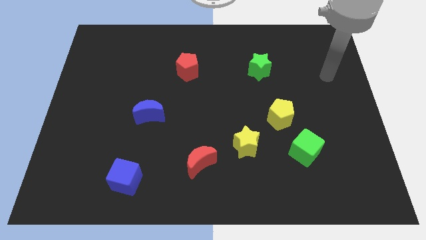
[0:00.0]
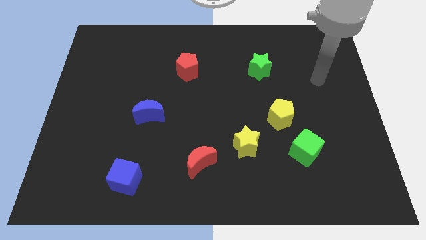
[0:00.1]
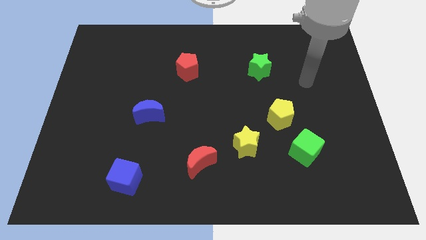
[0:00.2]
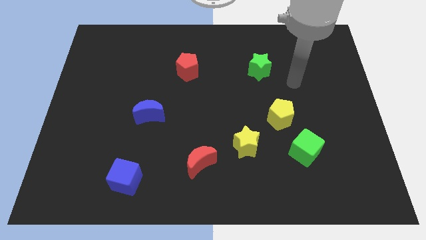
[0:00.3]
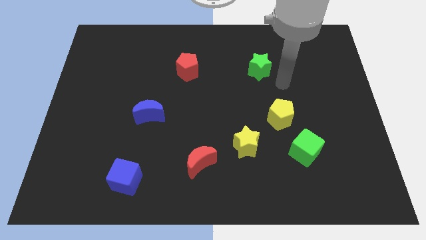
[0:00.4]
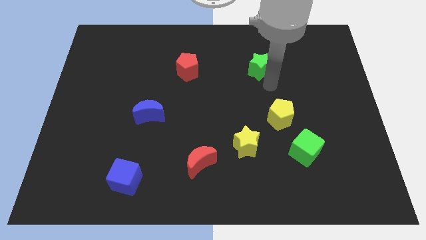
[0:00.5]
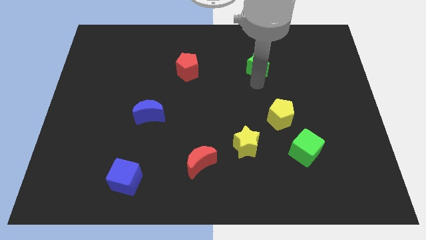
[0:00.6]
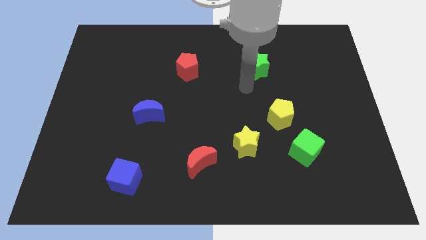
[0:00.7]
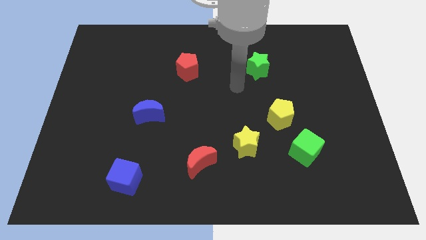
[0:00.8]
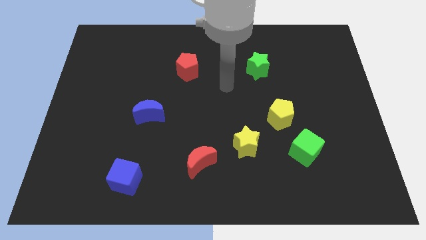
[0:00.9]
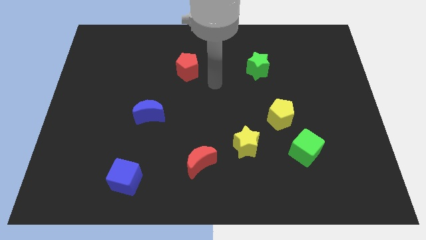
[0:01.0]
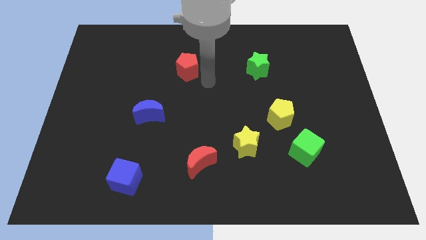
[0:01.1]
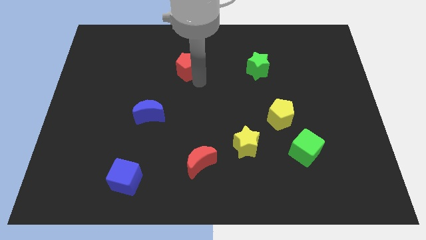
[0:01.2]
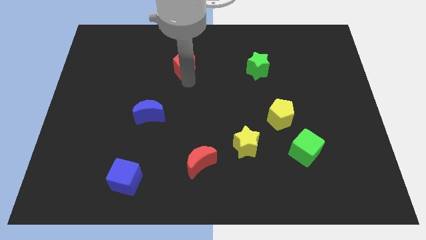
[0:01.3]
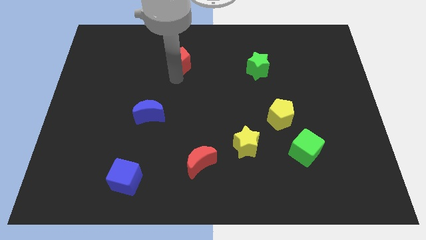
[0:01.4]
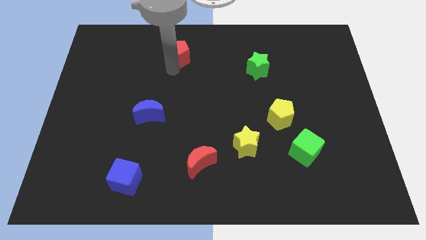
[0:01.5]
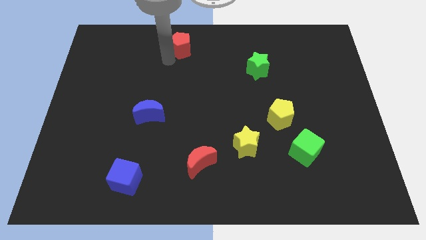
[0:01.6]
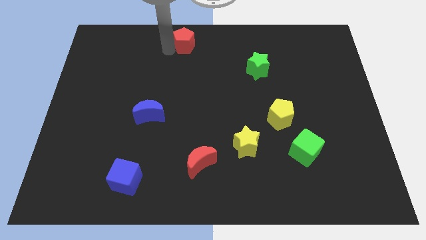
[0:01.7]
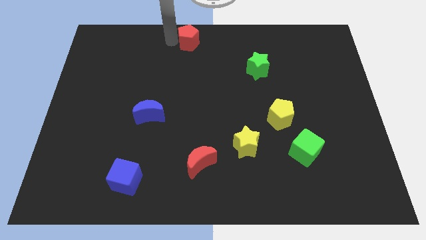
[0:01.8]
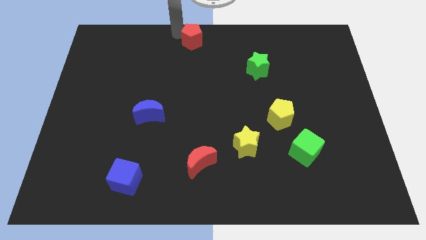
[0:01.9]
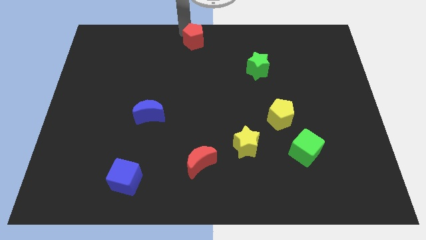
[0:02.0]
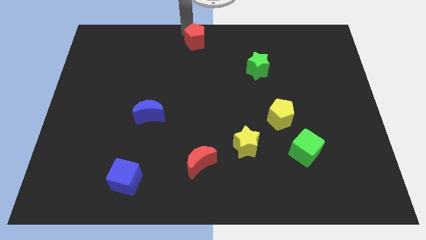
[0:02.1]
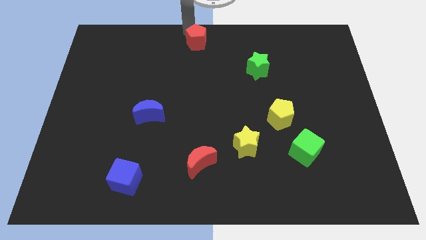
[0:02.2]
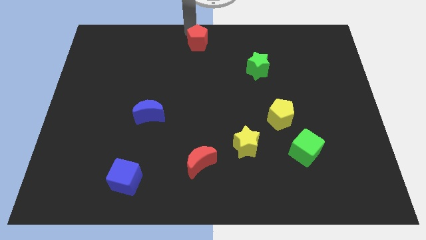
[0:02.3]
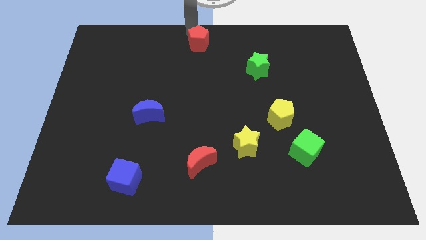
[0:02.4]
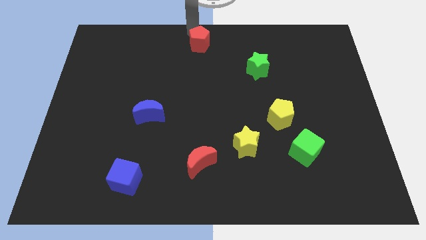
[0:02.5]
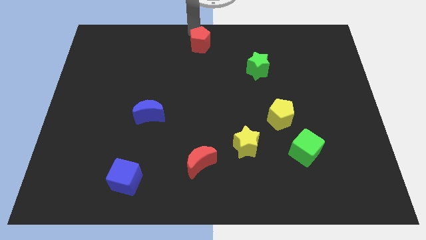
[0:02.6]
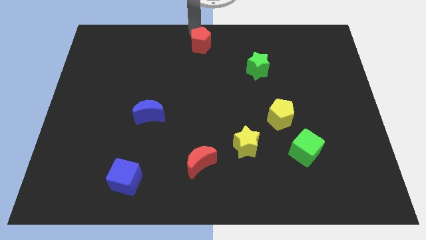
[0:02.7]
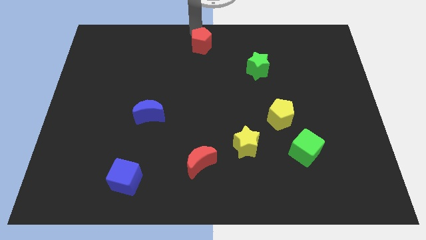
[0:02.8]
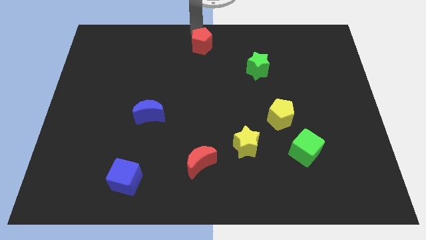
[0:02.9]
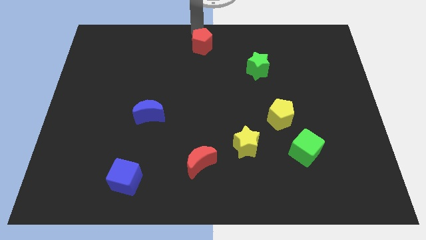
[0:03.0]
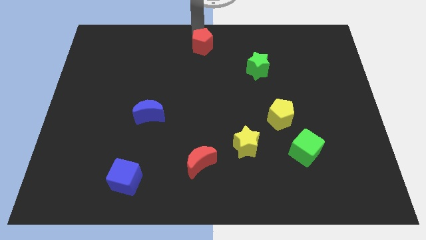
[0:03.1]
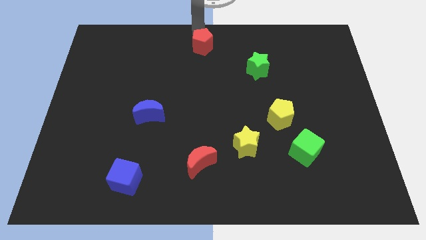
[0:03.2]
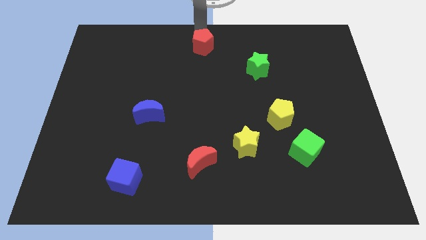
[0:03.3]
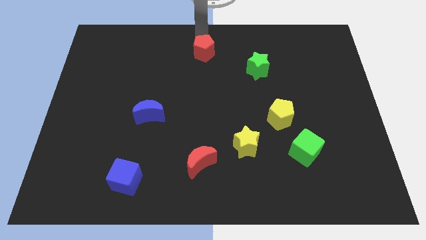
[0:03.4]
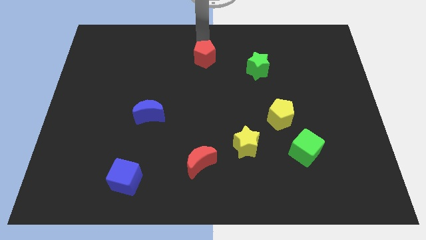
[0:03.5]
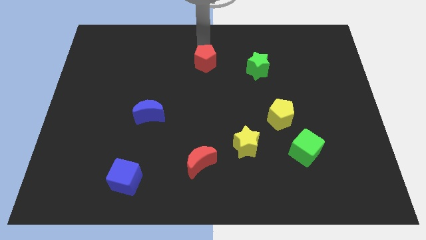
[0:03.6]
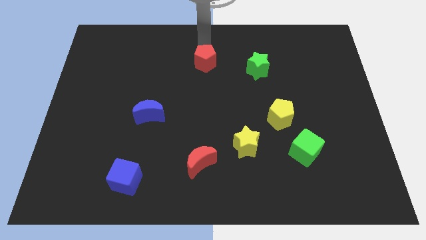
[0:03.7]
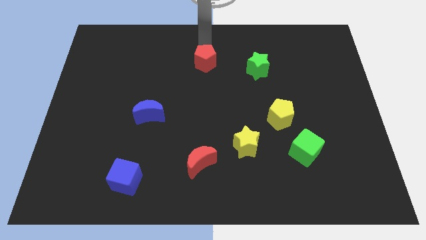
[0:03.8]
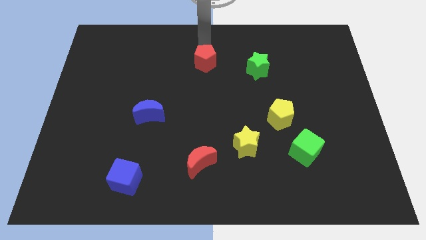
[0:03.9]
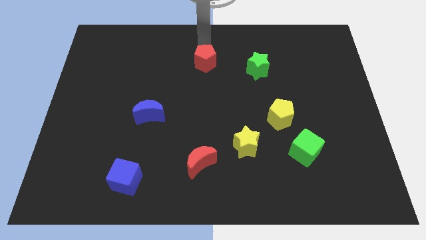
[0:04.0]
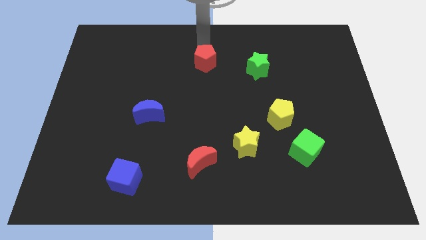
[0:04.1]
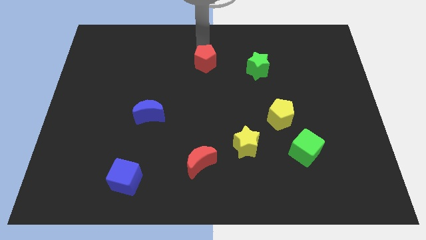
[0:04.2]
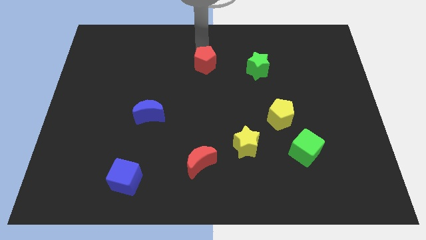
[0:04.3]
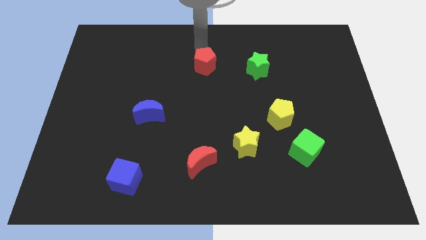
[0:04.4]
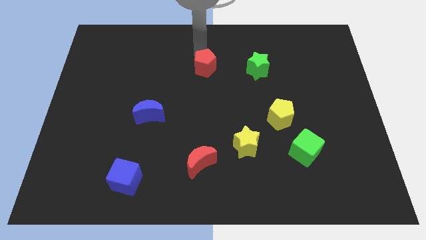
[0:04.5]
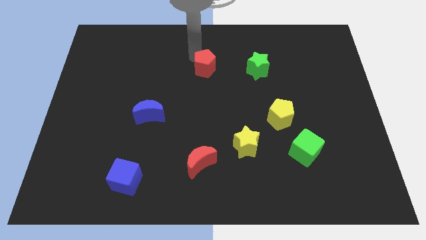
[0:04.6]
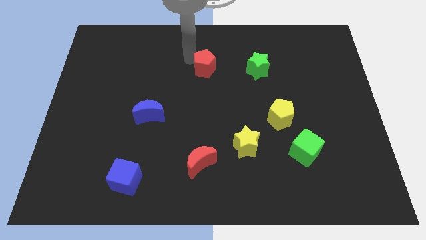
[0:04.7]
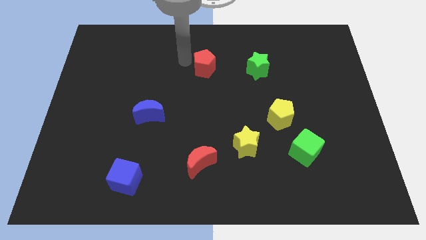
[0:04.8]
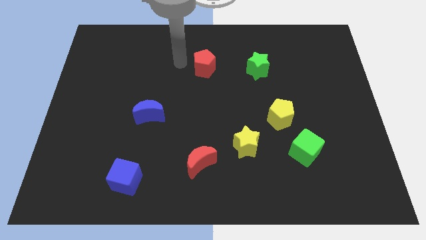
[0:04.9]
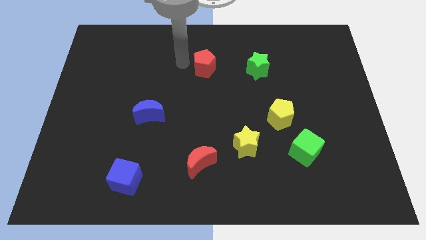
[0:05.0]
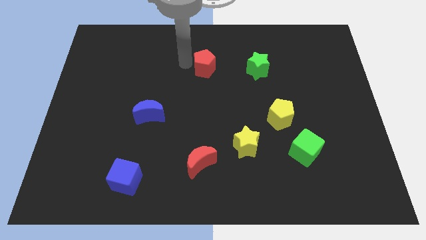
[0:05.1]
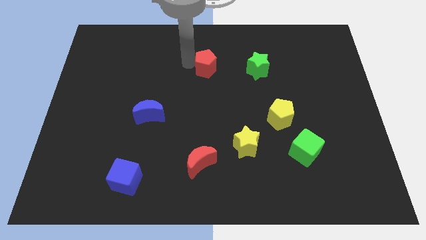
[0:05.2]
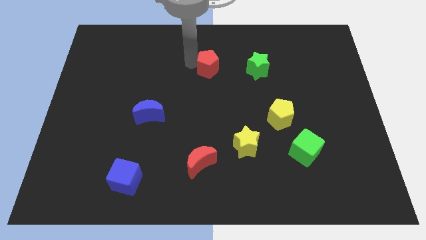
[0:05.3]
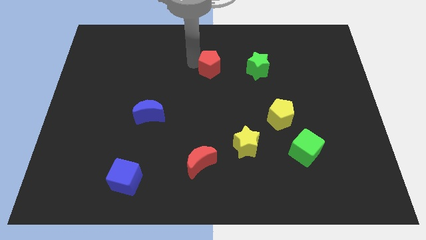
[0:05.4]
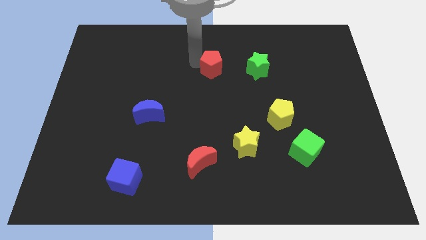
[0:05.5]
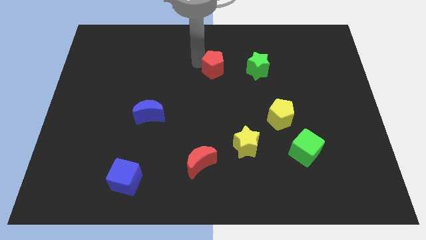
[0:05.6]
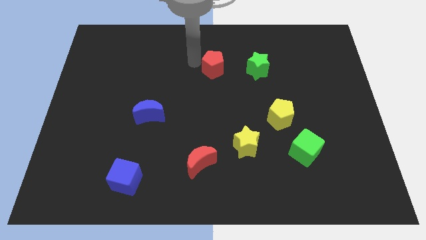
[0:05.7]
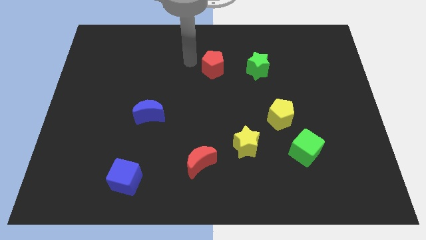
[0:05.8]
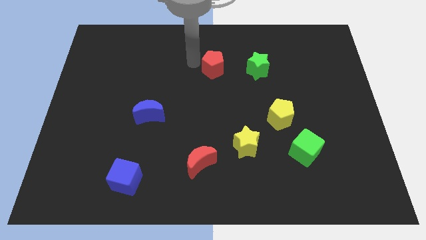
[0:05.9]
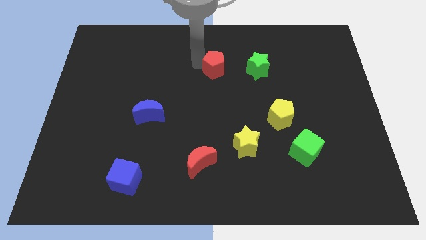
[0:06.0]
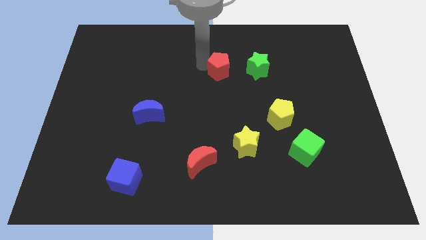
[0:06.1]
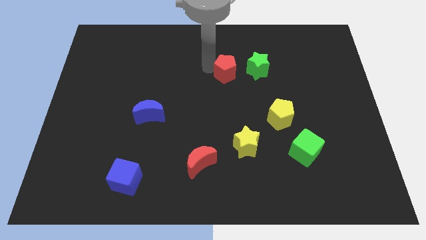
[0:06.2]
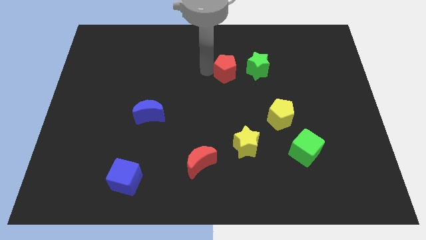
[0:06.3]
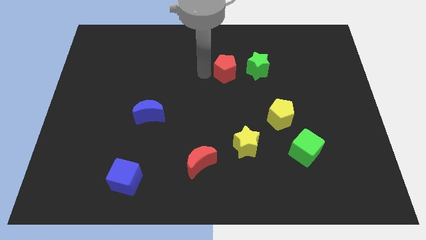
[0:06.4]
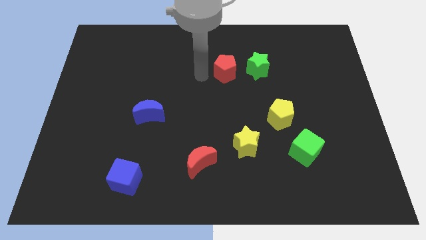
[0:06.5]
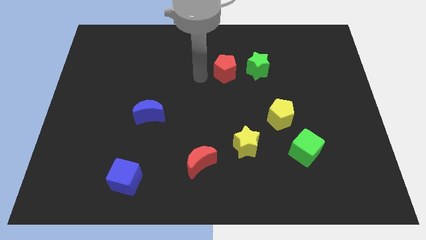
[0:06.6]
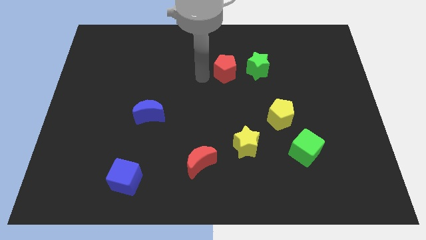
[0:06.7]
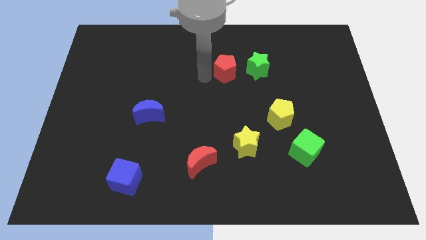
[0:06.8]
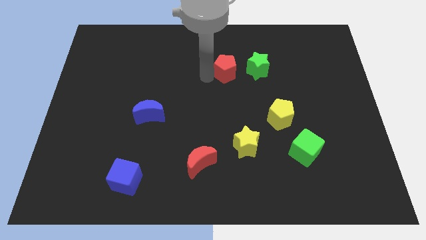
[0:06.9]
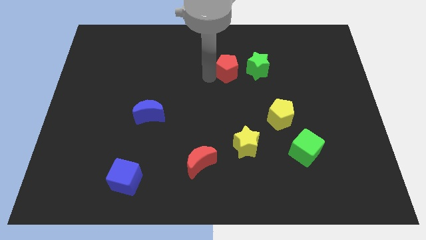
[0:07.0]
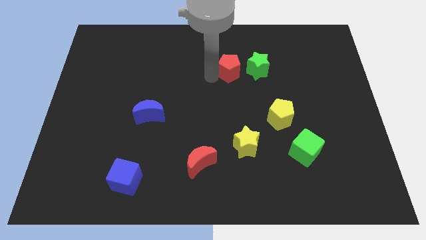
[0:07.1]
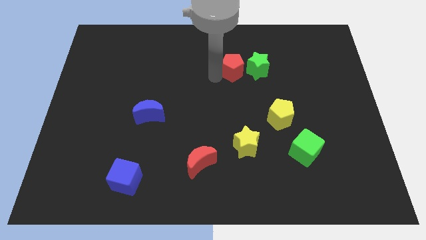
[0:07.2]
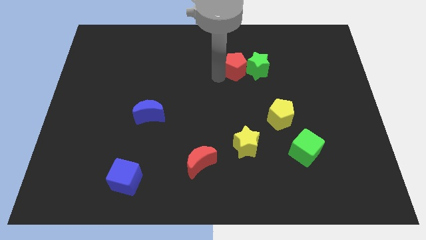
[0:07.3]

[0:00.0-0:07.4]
move the red pentagon to the green star
